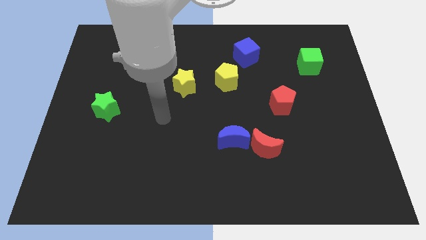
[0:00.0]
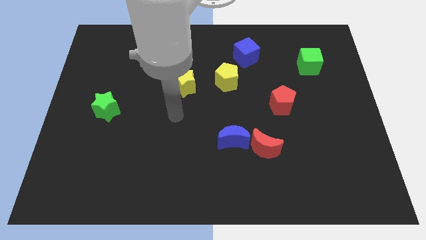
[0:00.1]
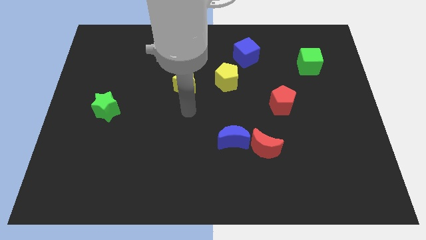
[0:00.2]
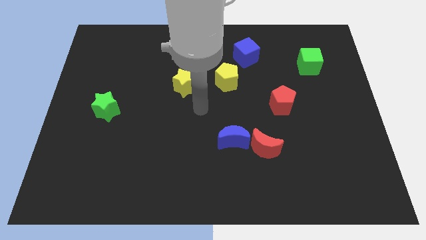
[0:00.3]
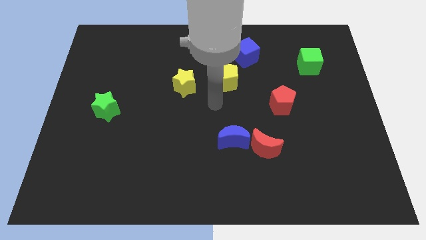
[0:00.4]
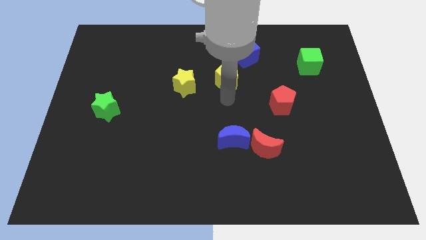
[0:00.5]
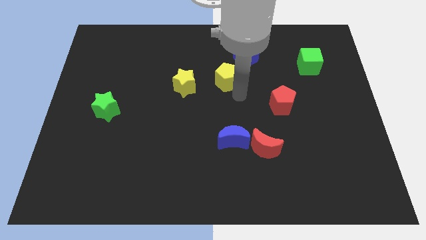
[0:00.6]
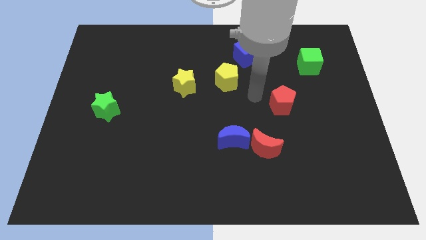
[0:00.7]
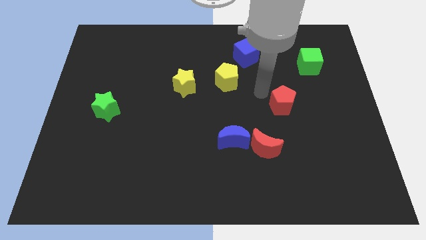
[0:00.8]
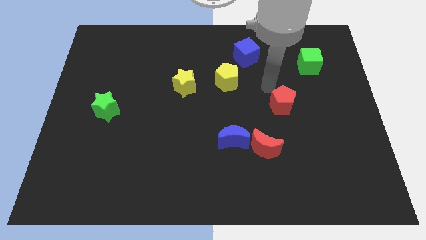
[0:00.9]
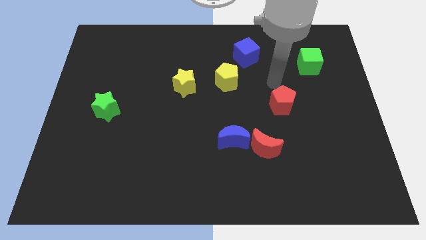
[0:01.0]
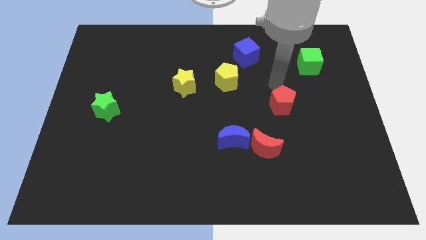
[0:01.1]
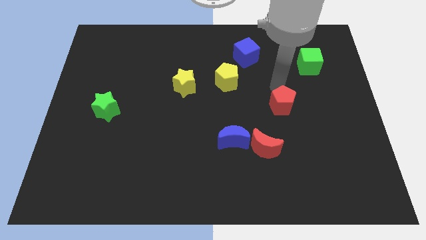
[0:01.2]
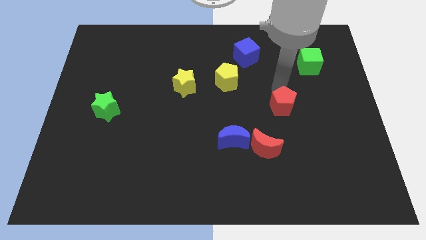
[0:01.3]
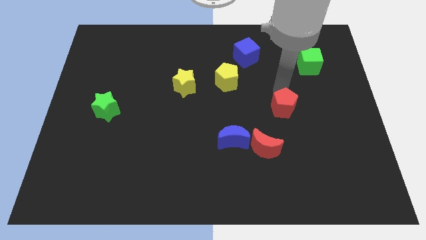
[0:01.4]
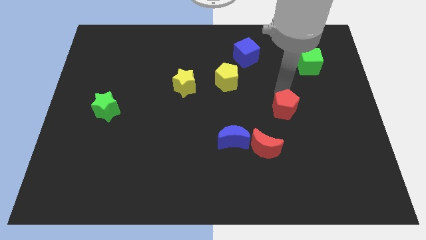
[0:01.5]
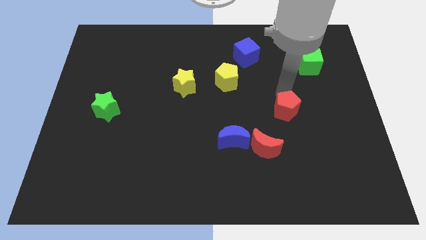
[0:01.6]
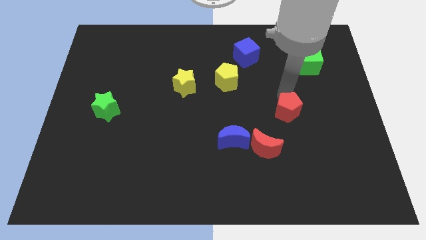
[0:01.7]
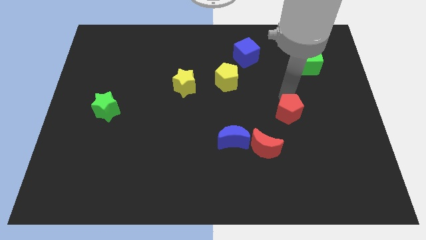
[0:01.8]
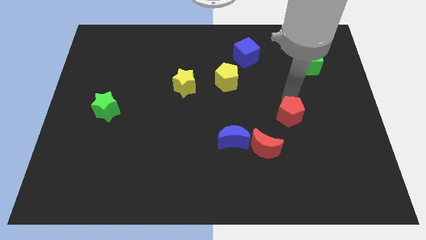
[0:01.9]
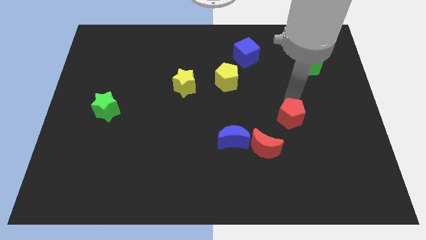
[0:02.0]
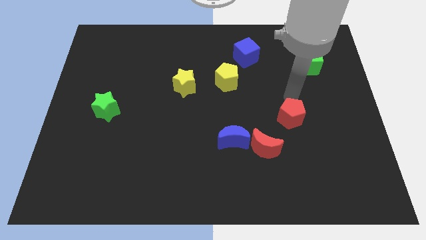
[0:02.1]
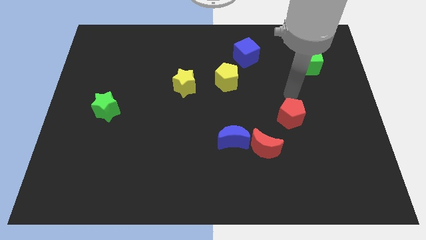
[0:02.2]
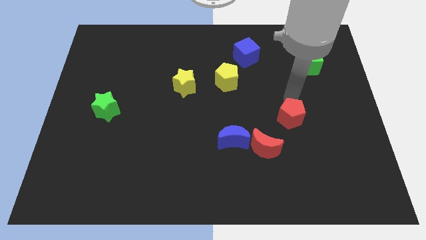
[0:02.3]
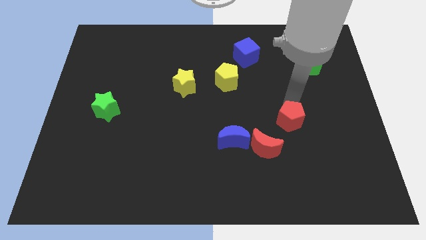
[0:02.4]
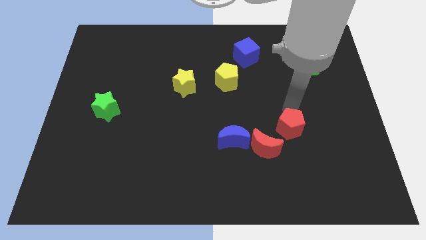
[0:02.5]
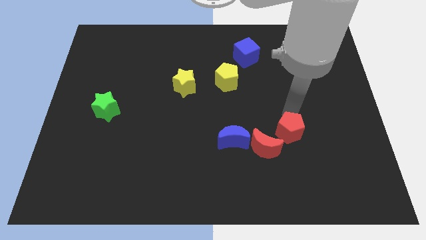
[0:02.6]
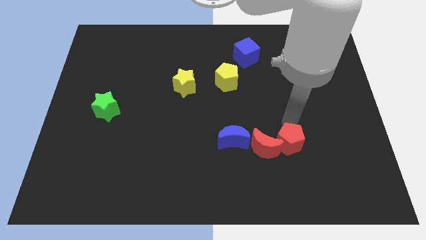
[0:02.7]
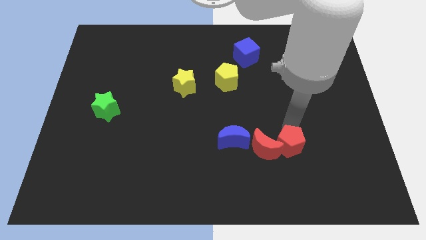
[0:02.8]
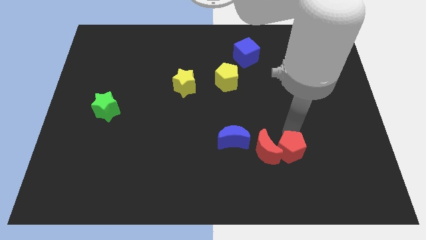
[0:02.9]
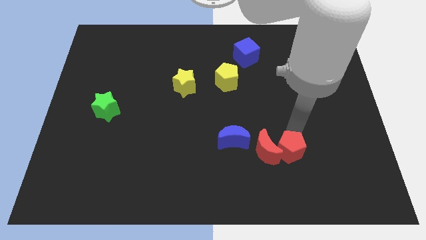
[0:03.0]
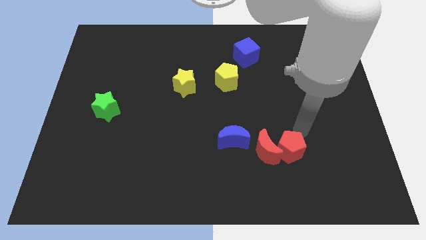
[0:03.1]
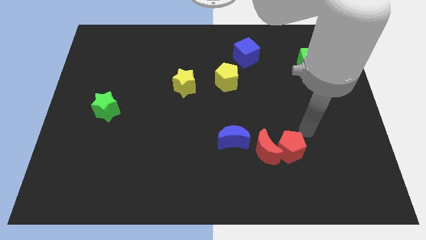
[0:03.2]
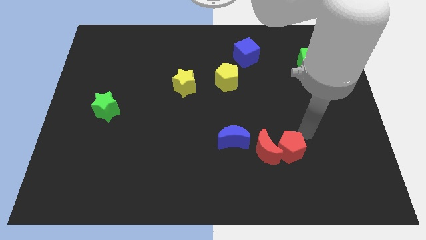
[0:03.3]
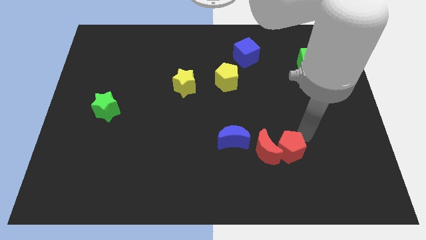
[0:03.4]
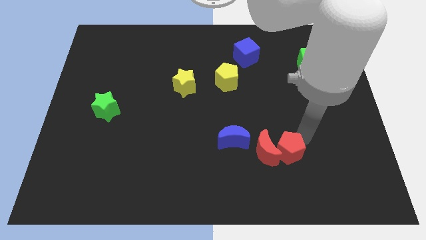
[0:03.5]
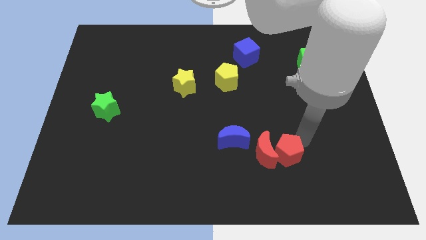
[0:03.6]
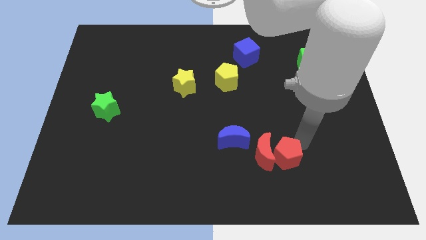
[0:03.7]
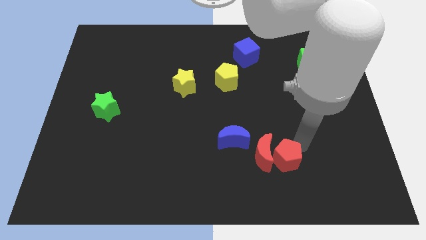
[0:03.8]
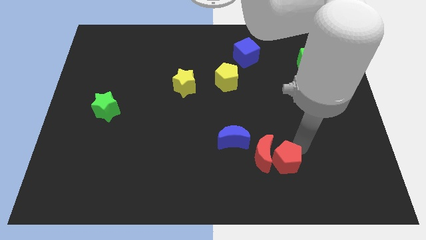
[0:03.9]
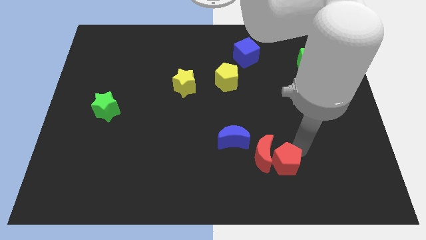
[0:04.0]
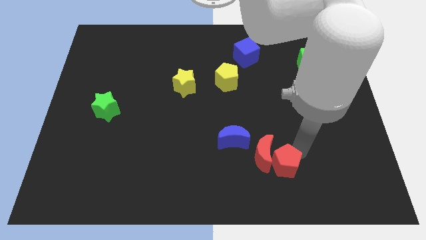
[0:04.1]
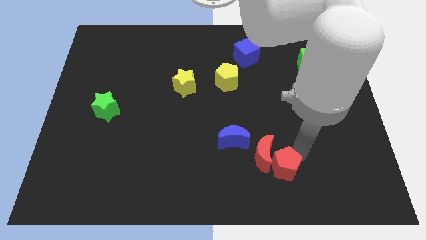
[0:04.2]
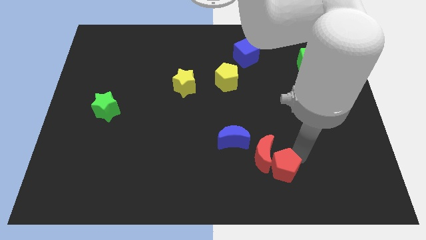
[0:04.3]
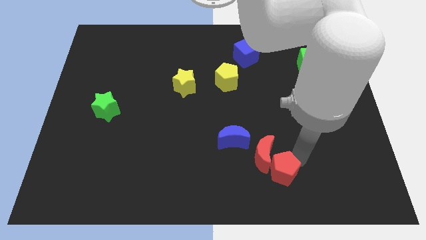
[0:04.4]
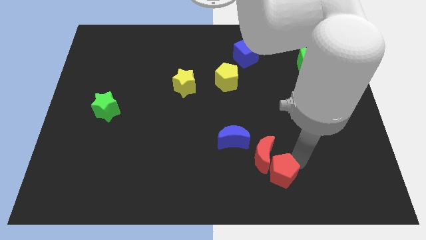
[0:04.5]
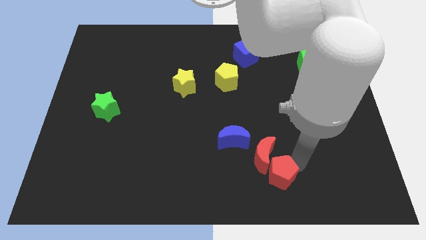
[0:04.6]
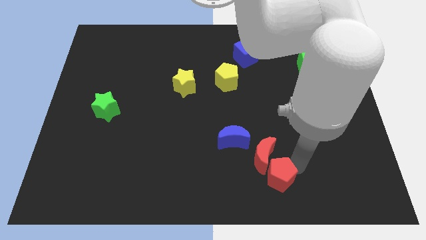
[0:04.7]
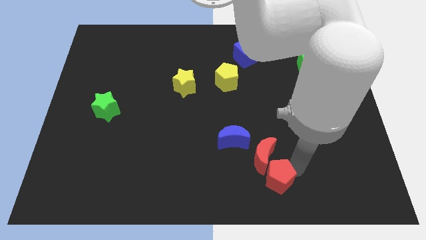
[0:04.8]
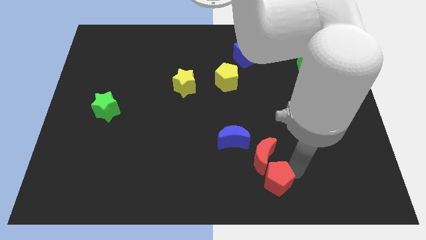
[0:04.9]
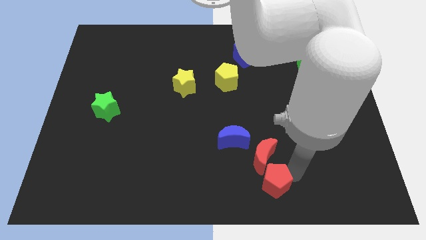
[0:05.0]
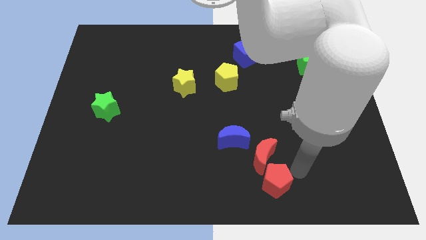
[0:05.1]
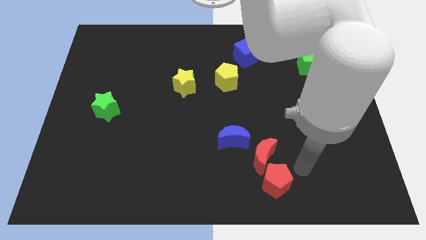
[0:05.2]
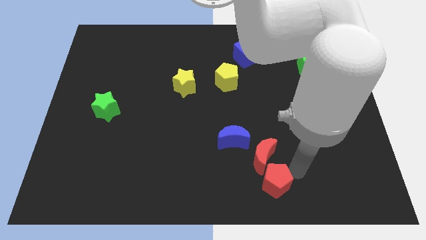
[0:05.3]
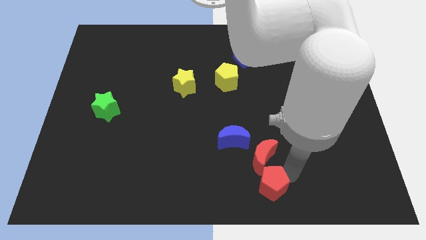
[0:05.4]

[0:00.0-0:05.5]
slide the red pentagon to the bottom
